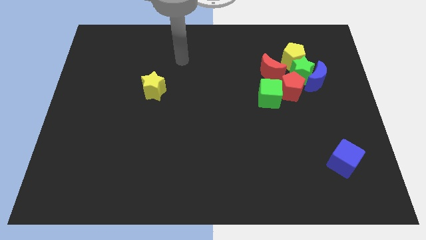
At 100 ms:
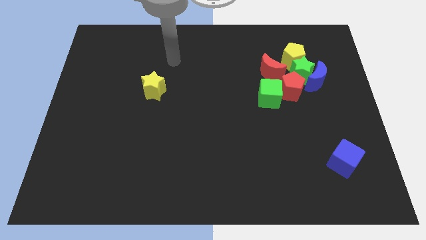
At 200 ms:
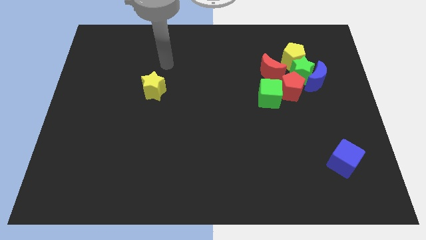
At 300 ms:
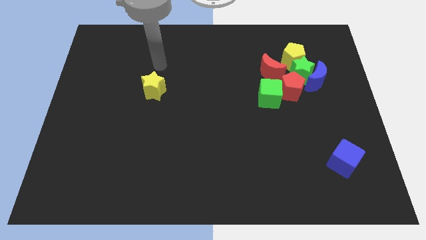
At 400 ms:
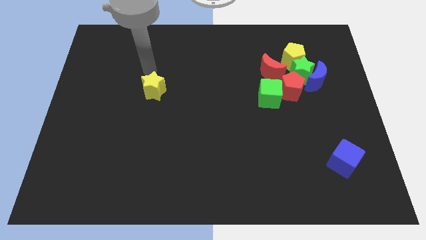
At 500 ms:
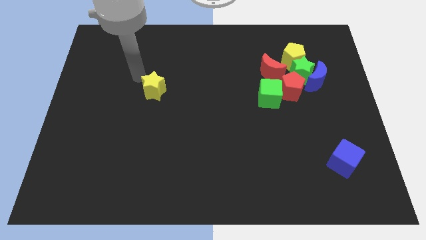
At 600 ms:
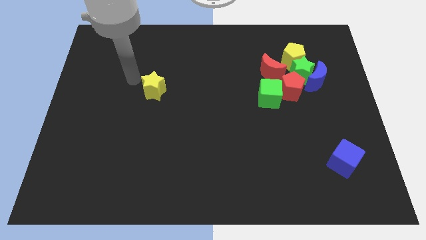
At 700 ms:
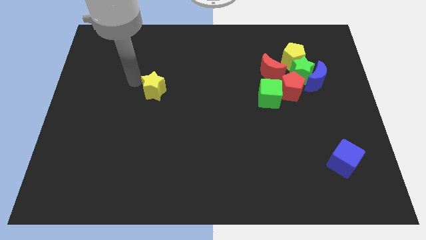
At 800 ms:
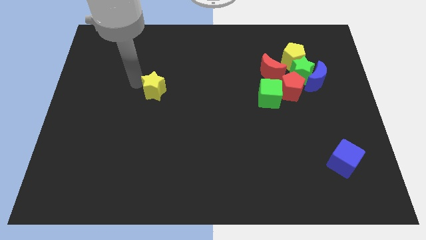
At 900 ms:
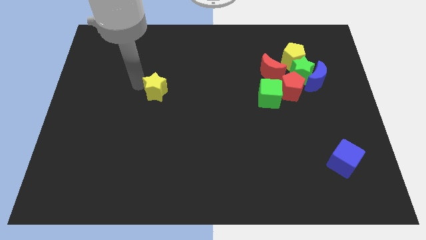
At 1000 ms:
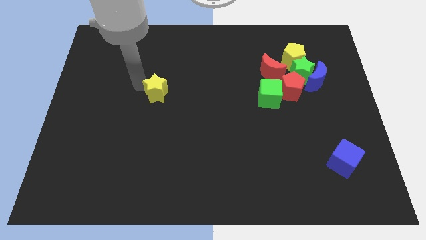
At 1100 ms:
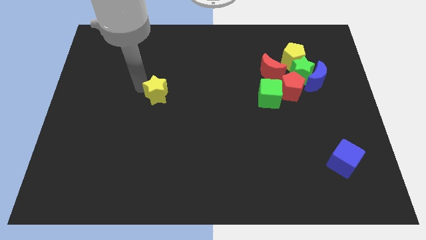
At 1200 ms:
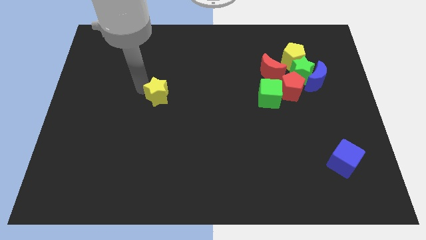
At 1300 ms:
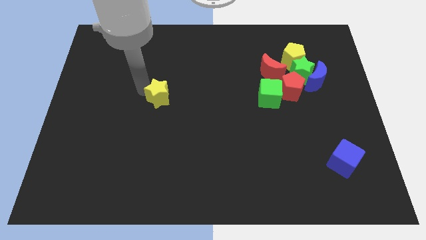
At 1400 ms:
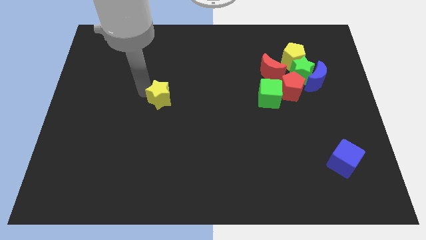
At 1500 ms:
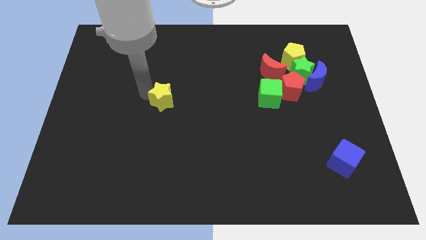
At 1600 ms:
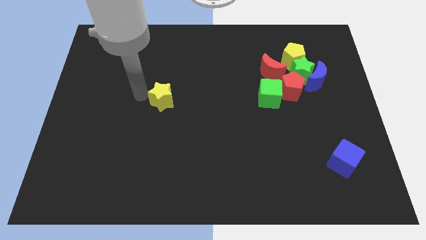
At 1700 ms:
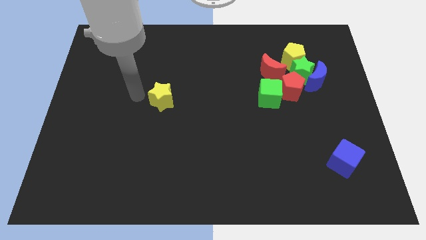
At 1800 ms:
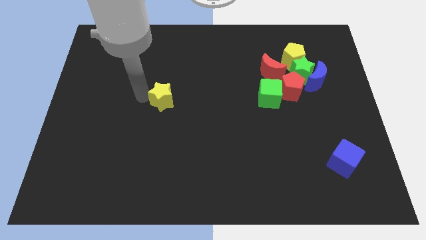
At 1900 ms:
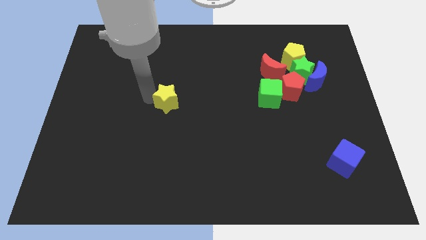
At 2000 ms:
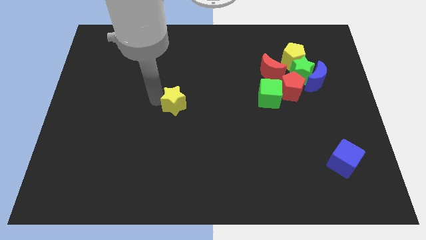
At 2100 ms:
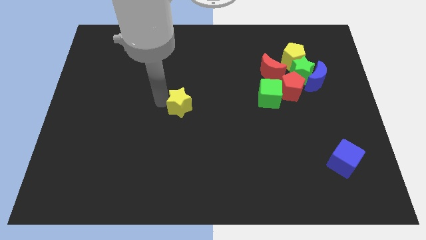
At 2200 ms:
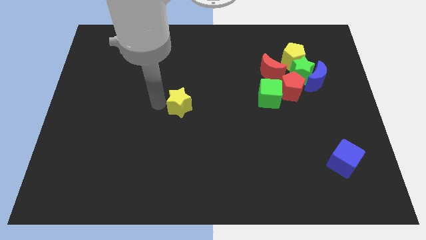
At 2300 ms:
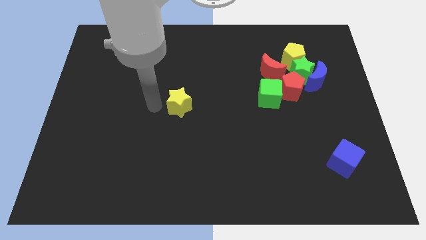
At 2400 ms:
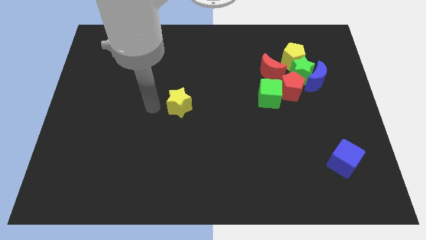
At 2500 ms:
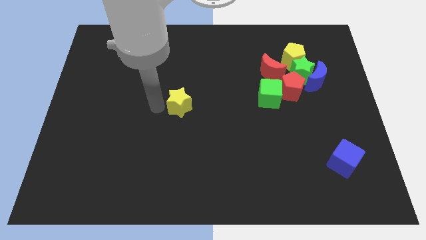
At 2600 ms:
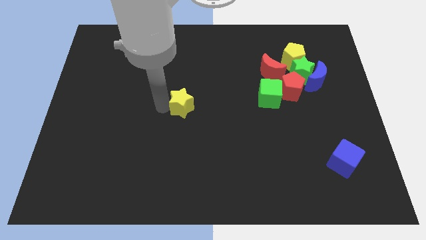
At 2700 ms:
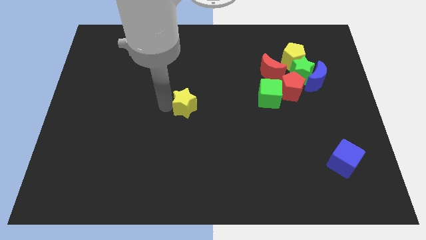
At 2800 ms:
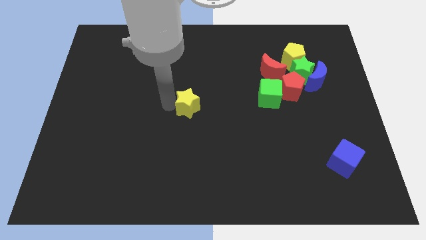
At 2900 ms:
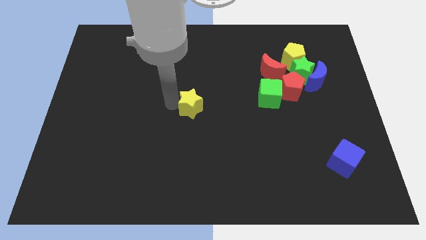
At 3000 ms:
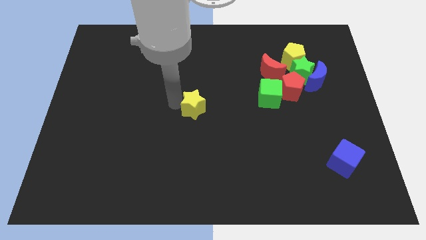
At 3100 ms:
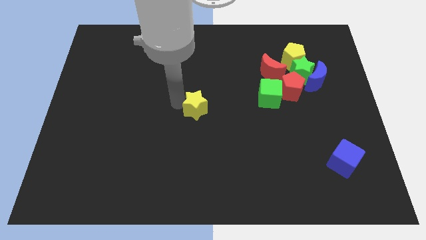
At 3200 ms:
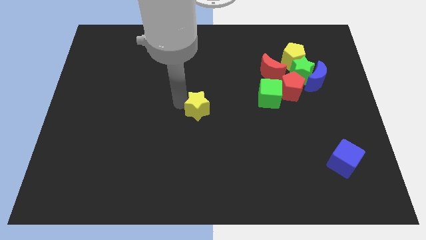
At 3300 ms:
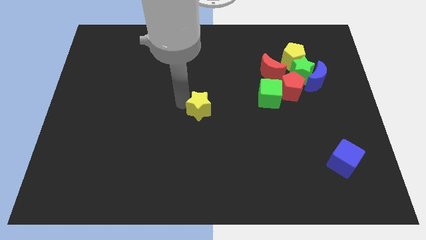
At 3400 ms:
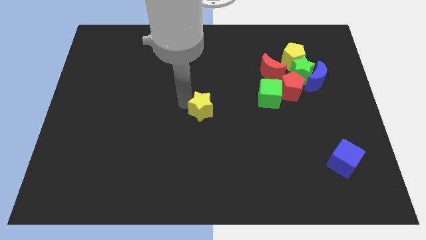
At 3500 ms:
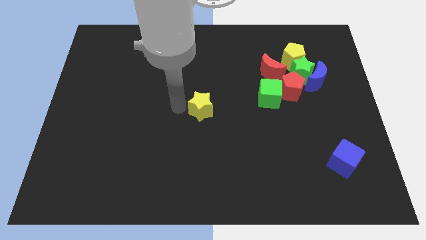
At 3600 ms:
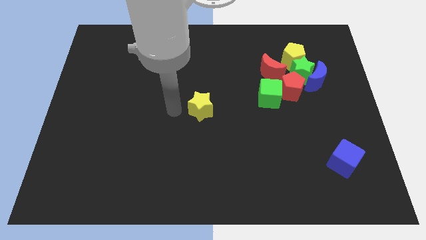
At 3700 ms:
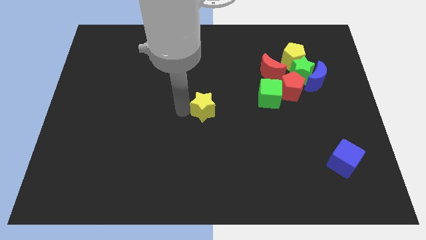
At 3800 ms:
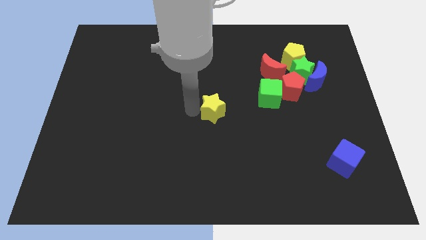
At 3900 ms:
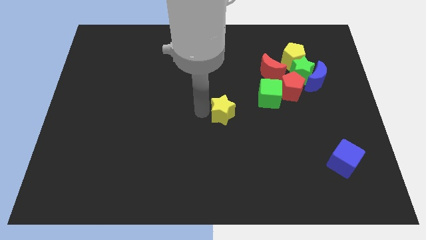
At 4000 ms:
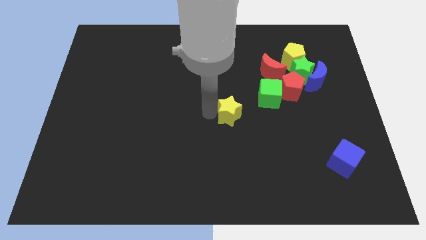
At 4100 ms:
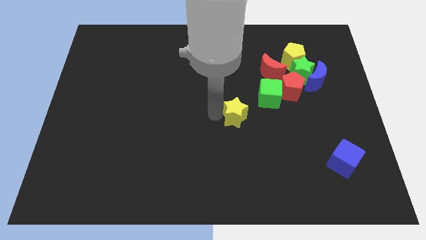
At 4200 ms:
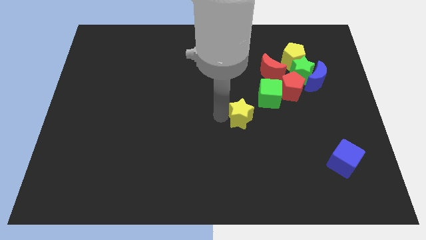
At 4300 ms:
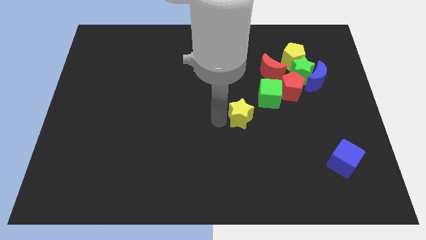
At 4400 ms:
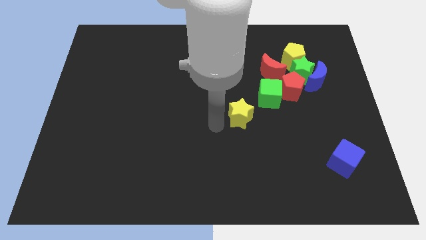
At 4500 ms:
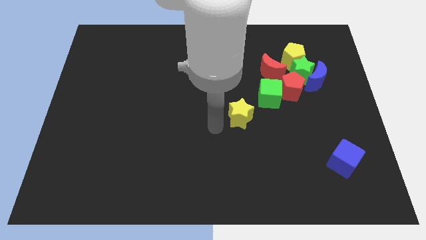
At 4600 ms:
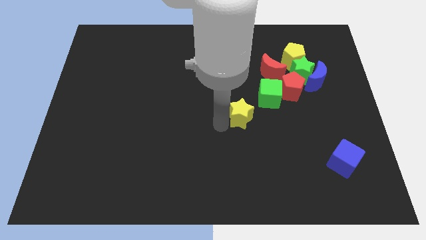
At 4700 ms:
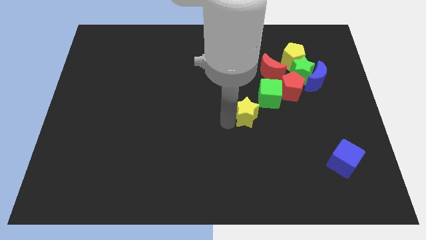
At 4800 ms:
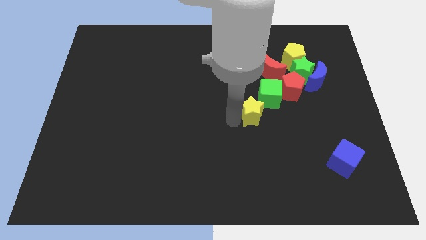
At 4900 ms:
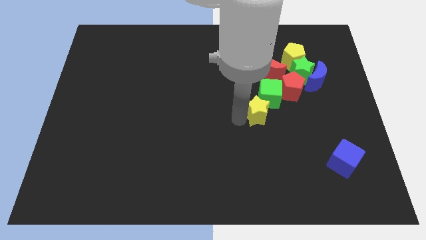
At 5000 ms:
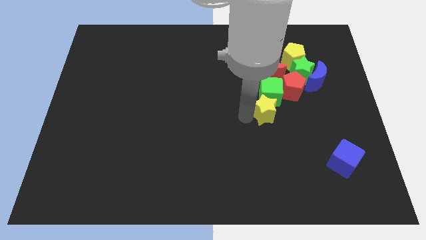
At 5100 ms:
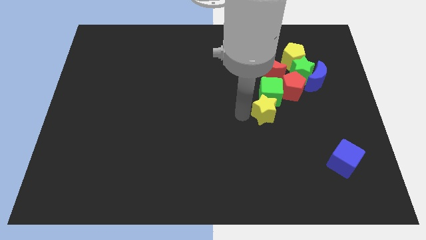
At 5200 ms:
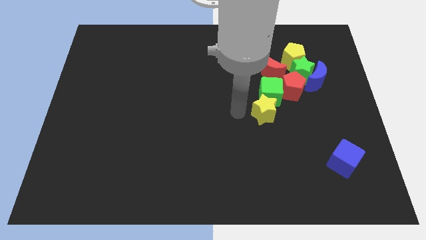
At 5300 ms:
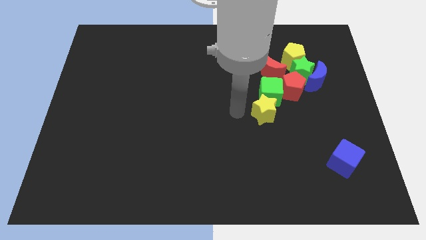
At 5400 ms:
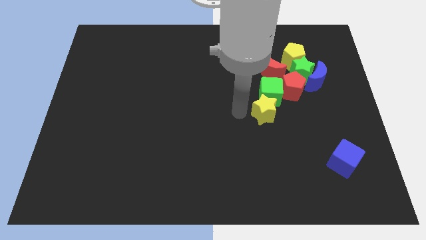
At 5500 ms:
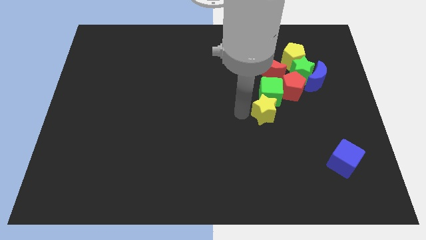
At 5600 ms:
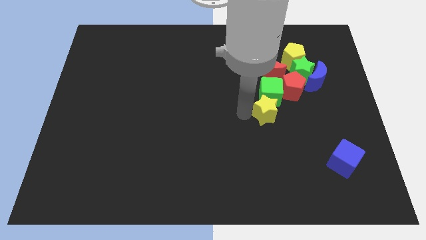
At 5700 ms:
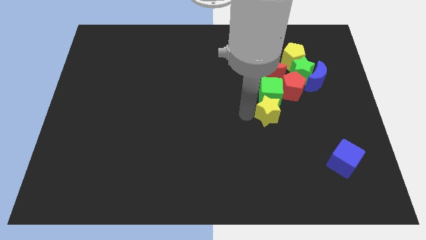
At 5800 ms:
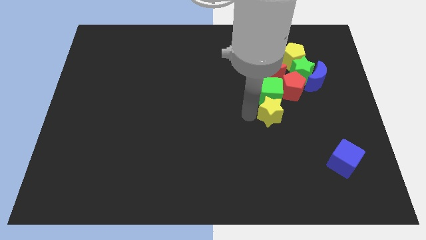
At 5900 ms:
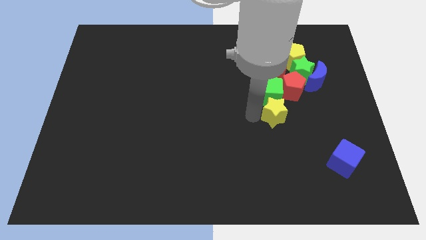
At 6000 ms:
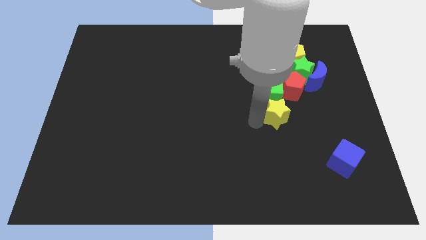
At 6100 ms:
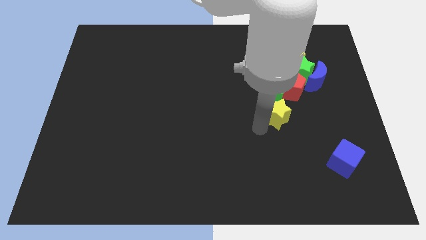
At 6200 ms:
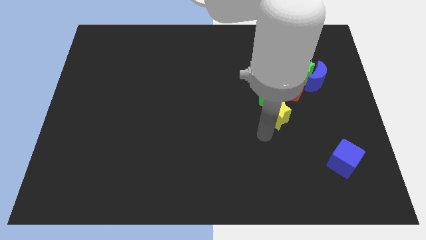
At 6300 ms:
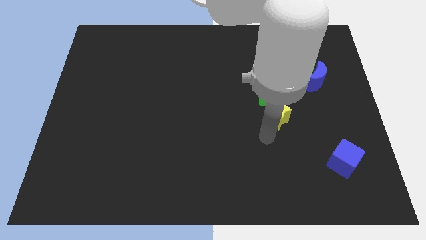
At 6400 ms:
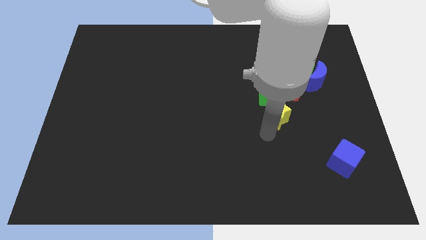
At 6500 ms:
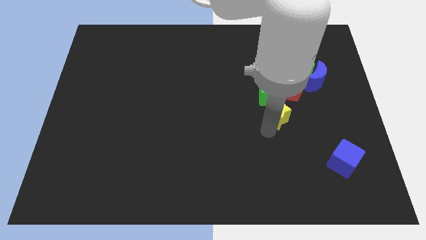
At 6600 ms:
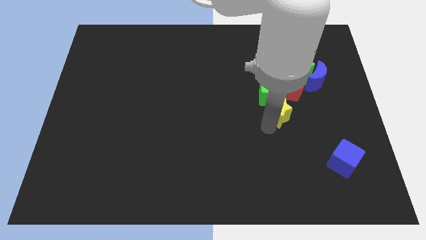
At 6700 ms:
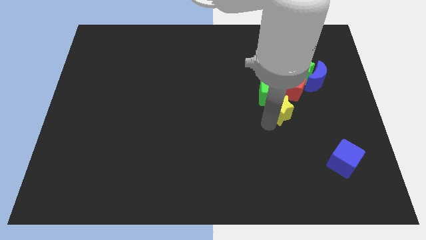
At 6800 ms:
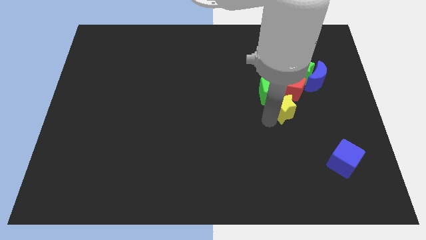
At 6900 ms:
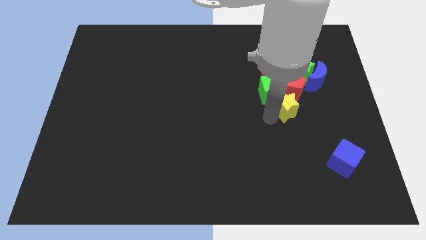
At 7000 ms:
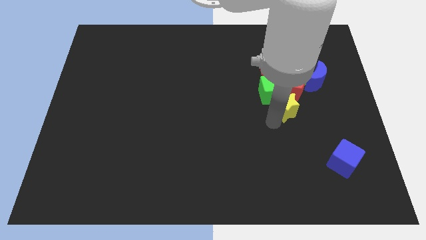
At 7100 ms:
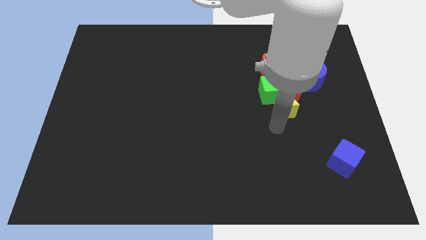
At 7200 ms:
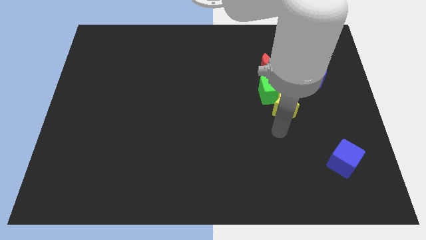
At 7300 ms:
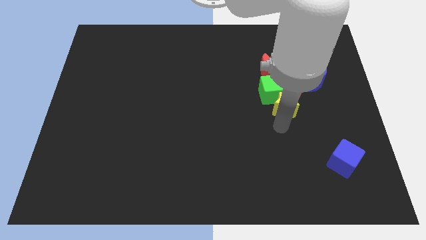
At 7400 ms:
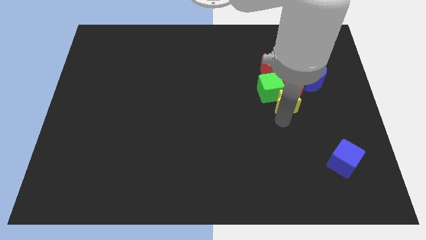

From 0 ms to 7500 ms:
slide the yellow star next to the red pentagon
